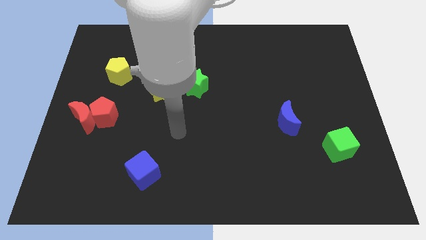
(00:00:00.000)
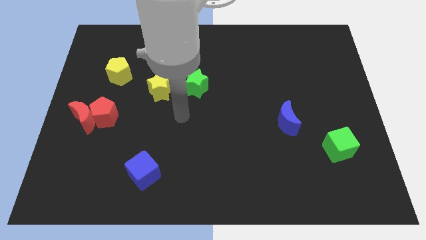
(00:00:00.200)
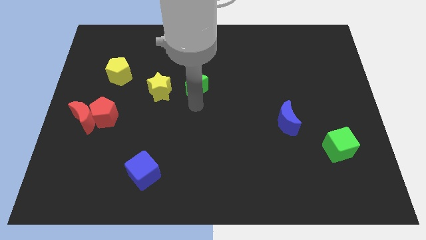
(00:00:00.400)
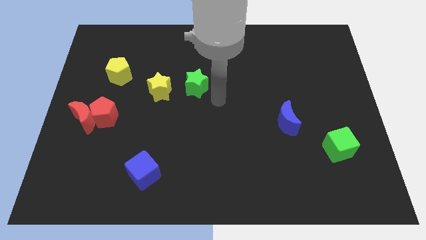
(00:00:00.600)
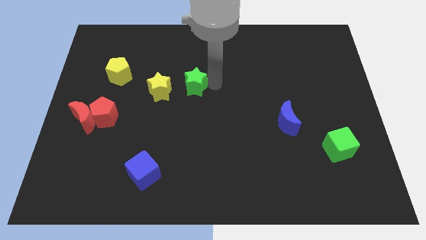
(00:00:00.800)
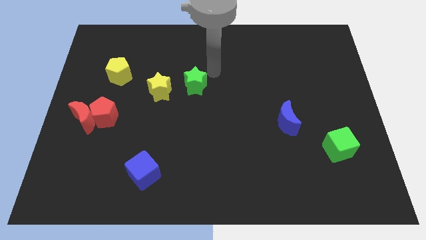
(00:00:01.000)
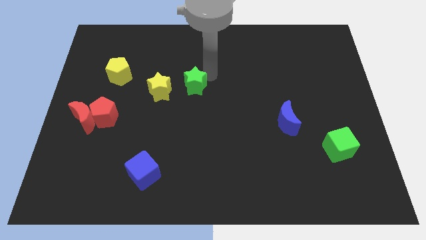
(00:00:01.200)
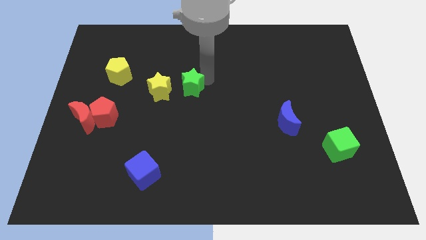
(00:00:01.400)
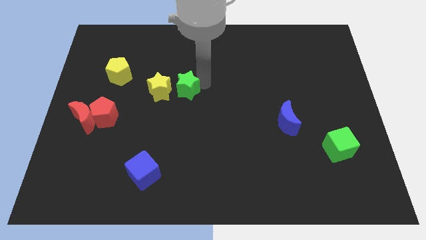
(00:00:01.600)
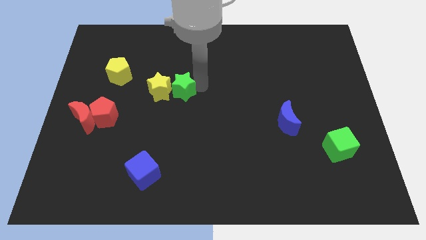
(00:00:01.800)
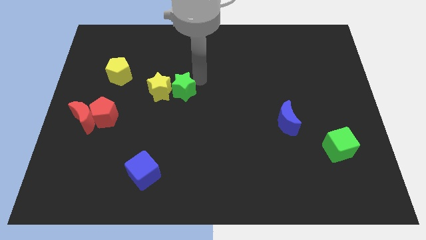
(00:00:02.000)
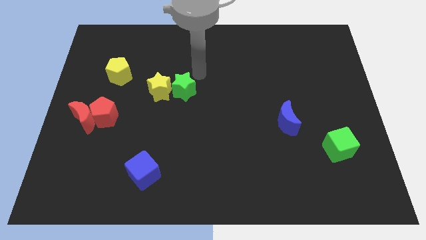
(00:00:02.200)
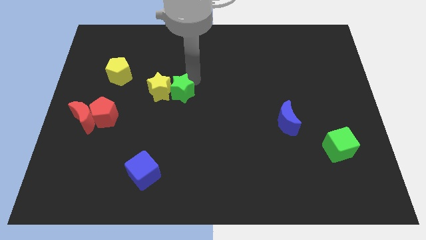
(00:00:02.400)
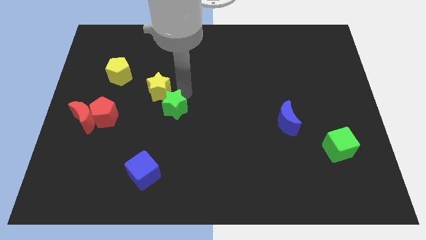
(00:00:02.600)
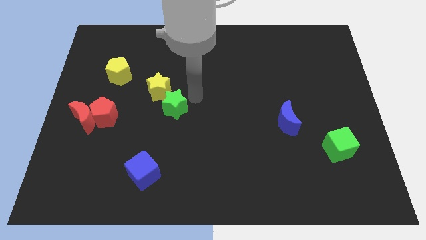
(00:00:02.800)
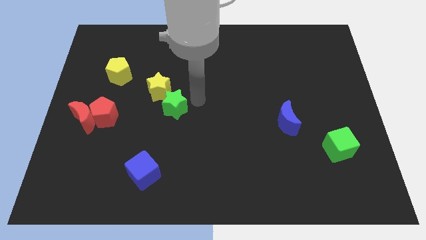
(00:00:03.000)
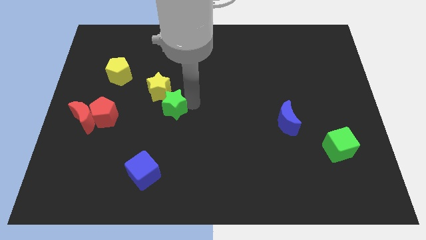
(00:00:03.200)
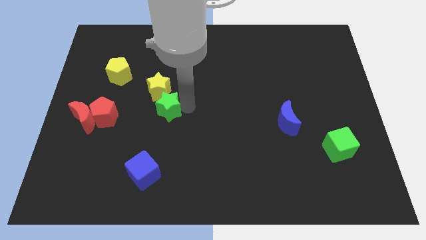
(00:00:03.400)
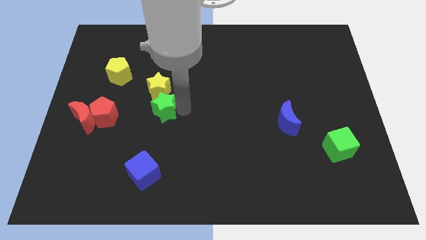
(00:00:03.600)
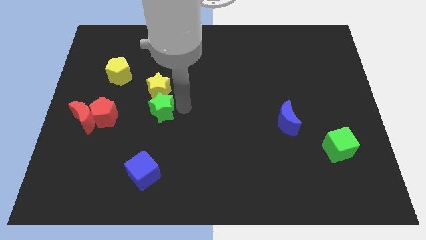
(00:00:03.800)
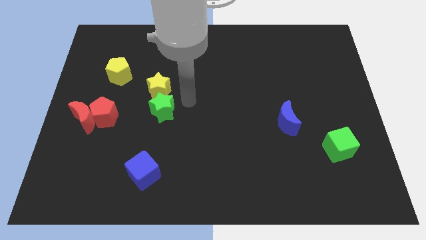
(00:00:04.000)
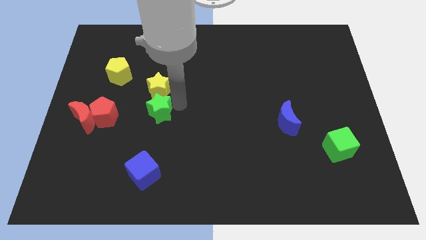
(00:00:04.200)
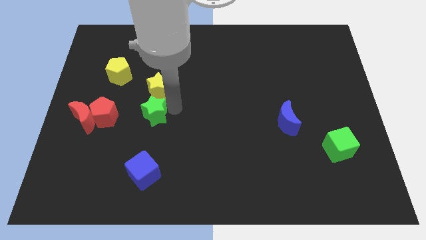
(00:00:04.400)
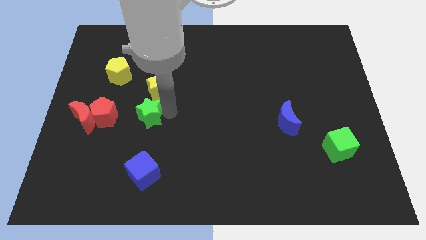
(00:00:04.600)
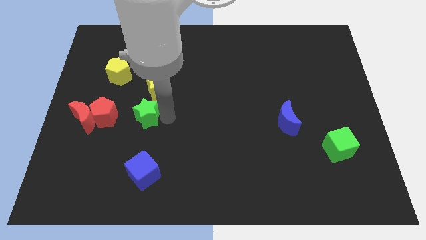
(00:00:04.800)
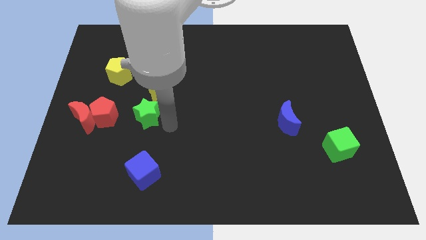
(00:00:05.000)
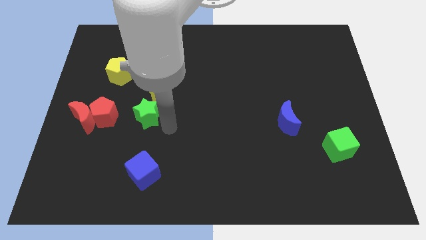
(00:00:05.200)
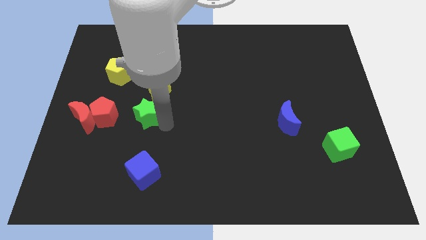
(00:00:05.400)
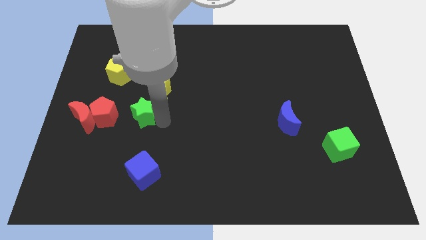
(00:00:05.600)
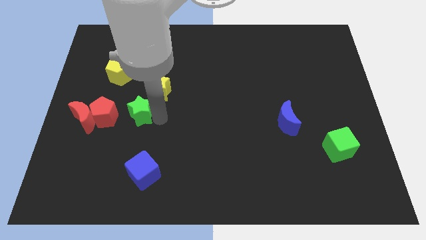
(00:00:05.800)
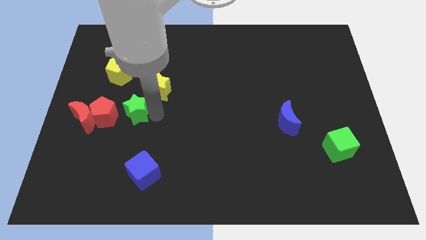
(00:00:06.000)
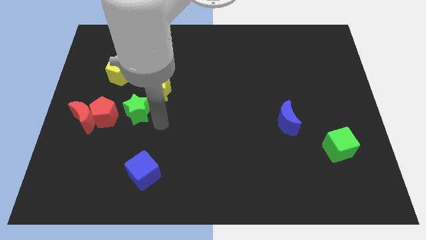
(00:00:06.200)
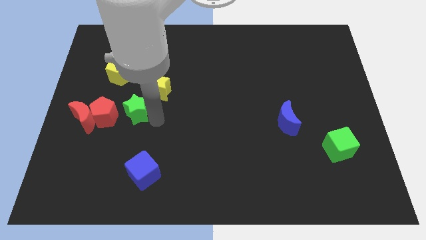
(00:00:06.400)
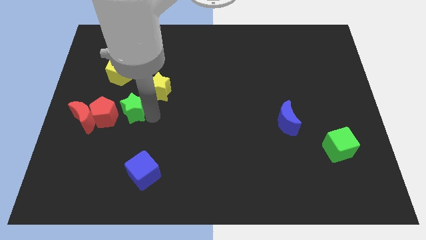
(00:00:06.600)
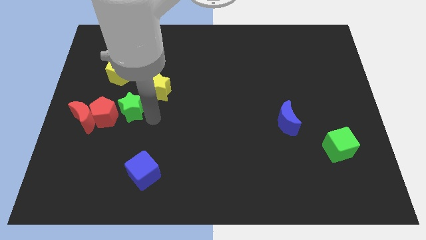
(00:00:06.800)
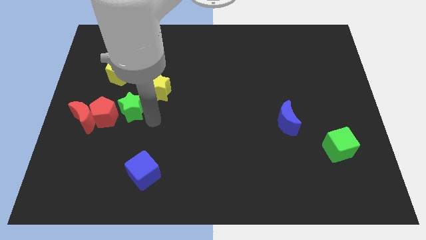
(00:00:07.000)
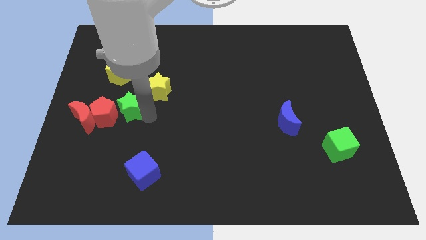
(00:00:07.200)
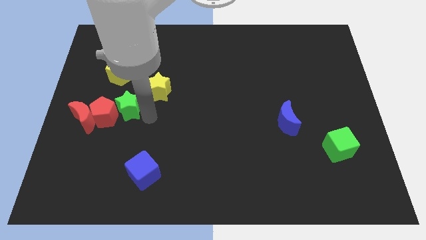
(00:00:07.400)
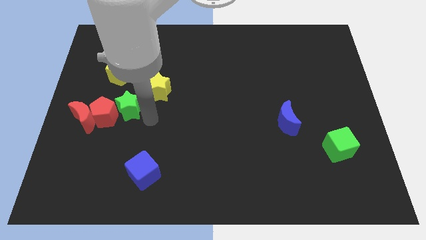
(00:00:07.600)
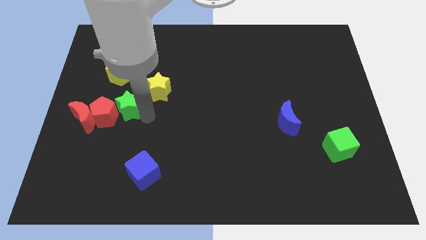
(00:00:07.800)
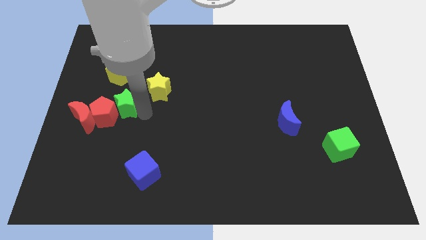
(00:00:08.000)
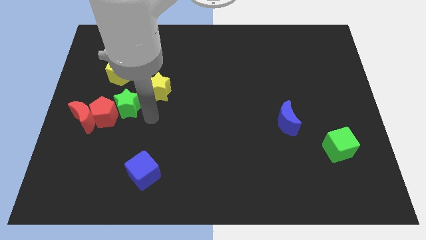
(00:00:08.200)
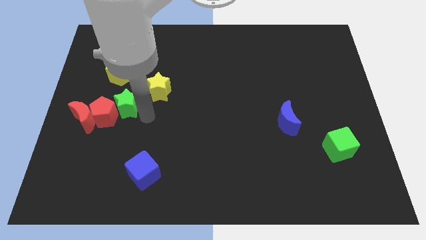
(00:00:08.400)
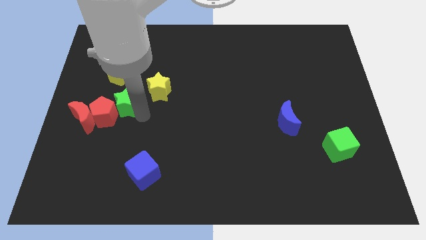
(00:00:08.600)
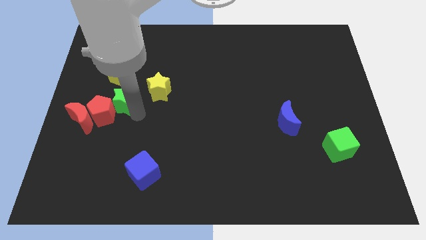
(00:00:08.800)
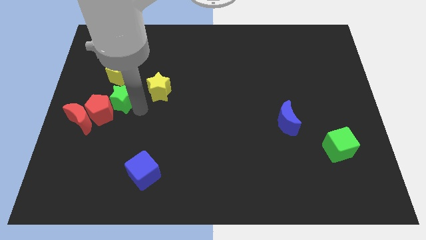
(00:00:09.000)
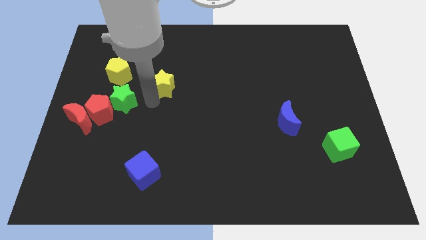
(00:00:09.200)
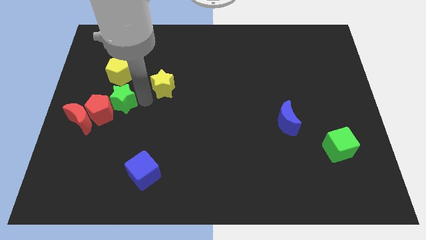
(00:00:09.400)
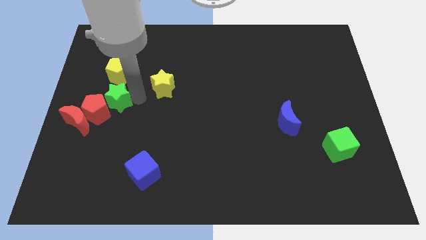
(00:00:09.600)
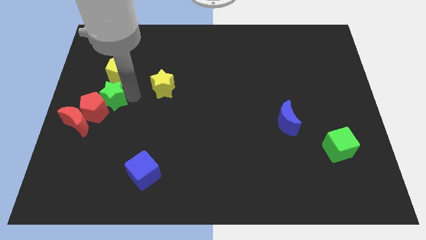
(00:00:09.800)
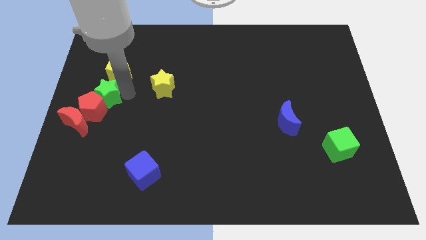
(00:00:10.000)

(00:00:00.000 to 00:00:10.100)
put the green star to the left side

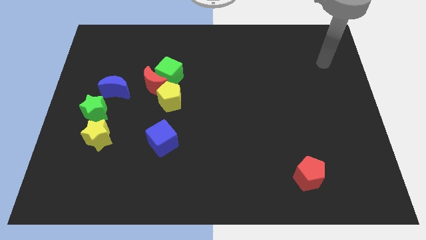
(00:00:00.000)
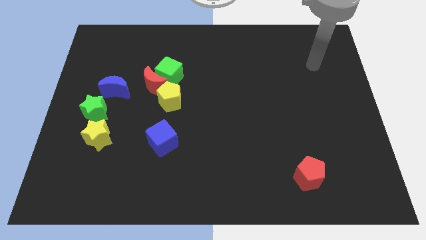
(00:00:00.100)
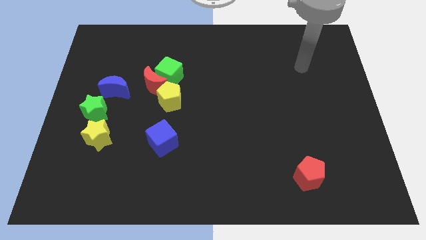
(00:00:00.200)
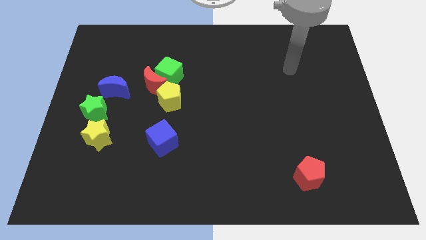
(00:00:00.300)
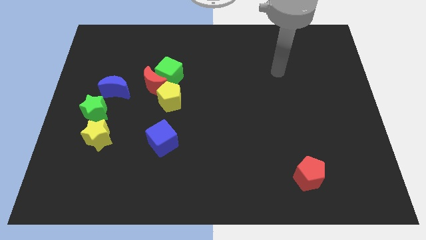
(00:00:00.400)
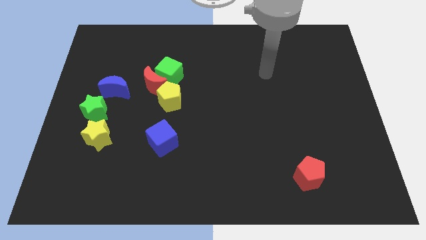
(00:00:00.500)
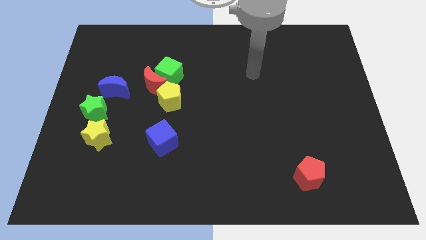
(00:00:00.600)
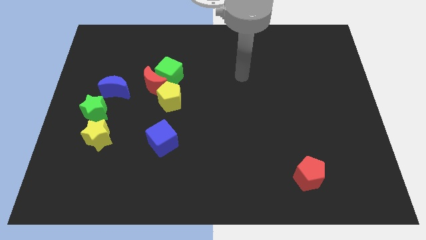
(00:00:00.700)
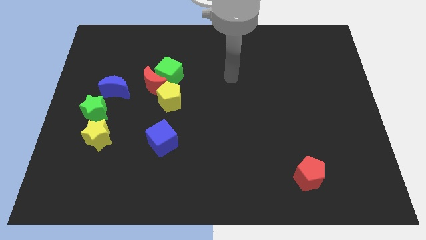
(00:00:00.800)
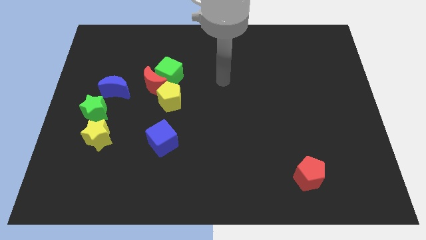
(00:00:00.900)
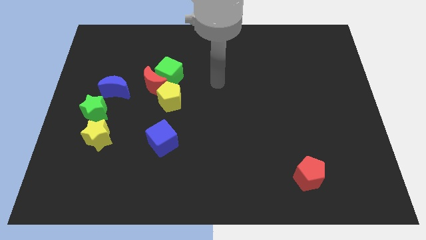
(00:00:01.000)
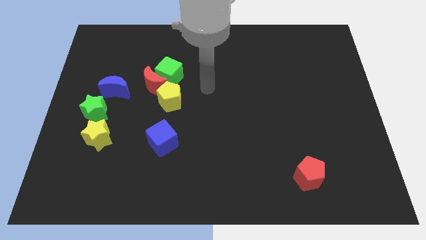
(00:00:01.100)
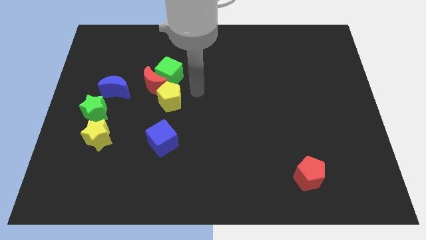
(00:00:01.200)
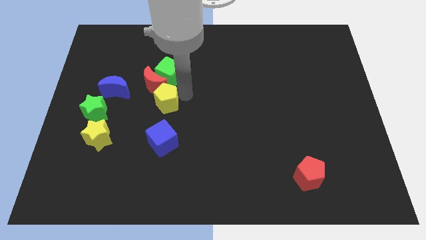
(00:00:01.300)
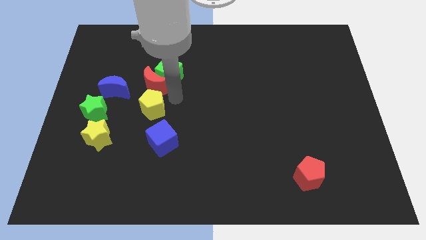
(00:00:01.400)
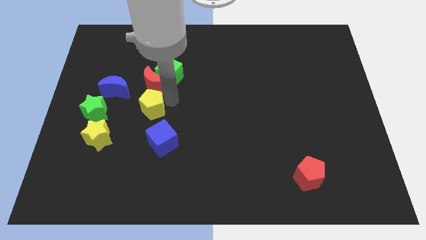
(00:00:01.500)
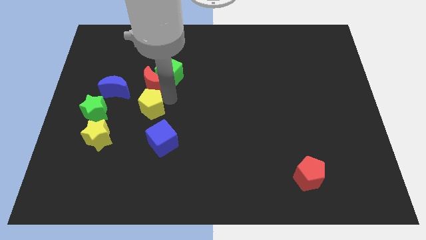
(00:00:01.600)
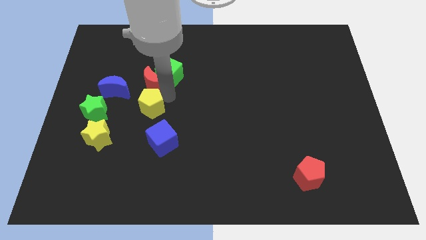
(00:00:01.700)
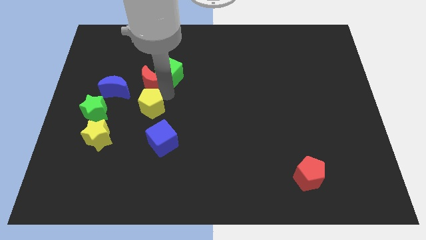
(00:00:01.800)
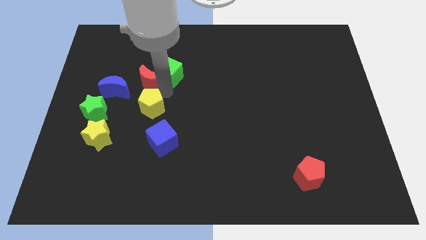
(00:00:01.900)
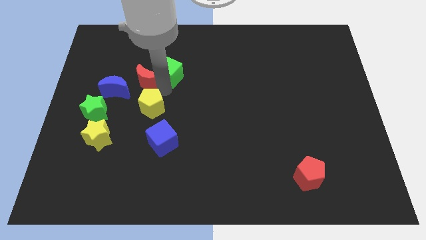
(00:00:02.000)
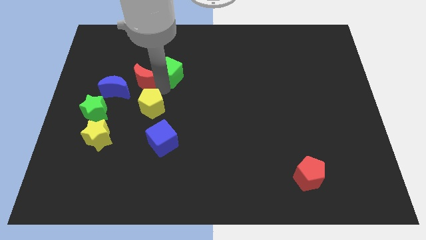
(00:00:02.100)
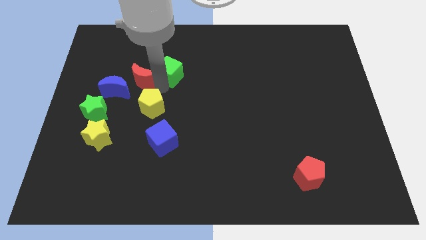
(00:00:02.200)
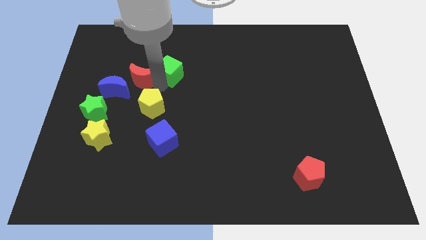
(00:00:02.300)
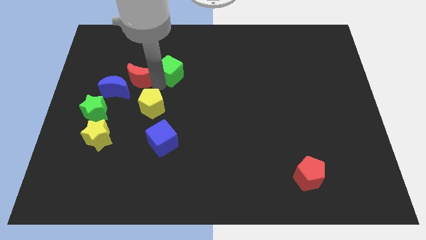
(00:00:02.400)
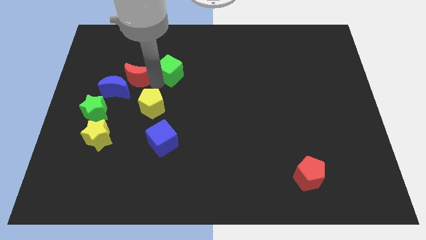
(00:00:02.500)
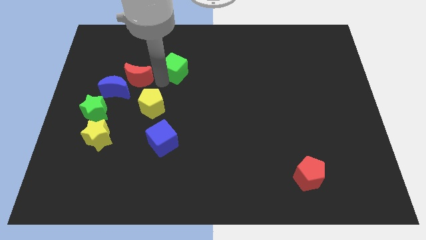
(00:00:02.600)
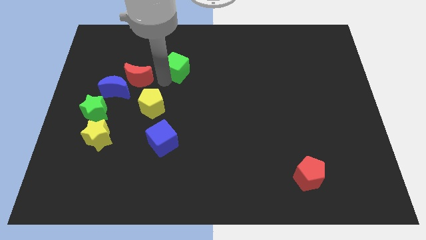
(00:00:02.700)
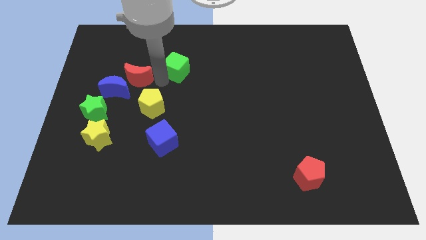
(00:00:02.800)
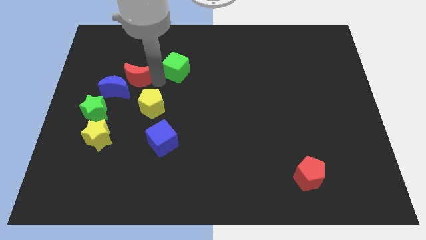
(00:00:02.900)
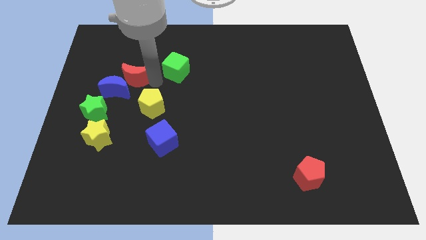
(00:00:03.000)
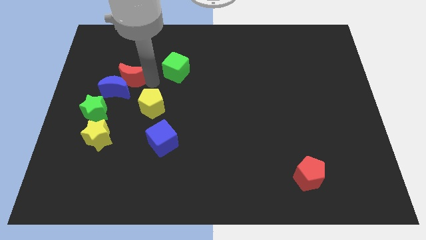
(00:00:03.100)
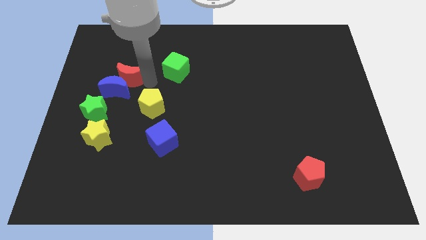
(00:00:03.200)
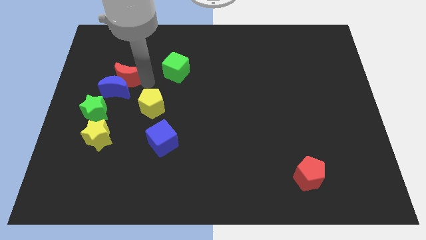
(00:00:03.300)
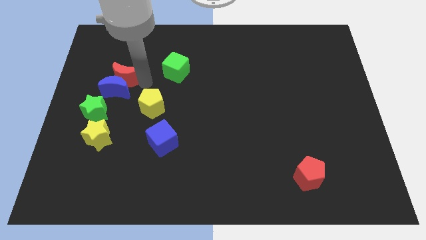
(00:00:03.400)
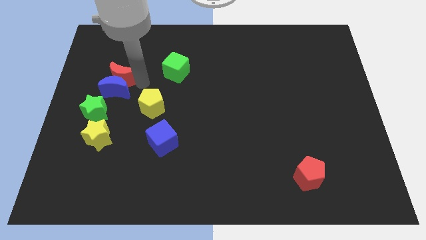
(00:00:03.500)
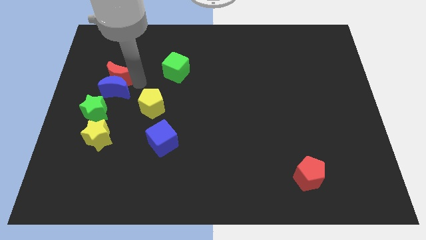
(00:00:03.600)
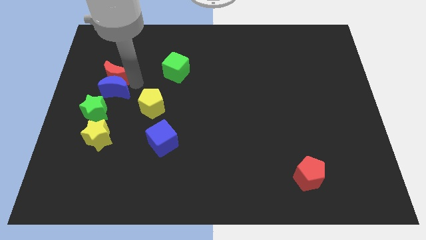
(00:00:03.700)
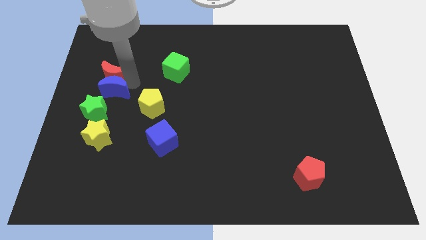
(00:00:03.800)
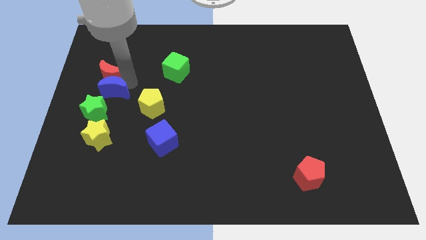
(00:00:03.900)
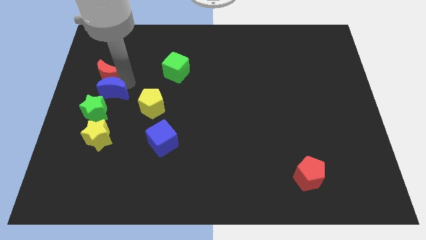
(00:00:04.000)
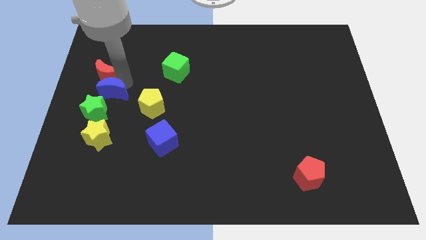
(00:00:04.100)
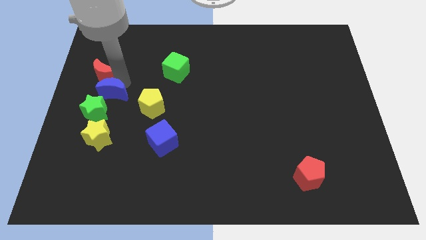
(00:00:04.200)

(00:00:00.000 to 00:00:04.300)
put the red moon to the left side of the board
